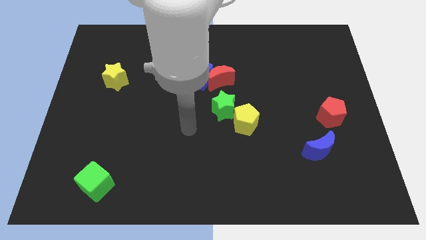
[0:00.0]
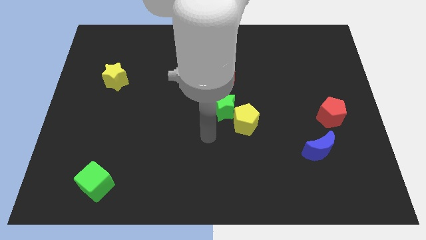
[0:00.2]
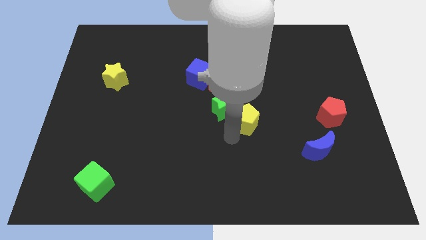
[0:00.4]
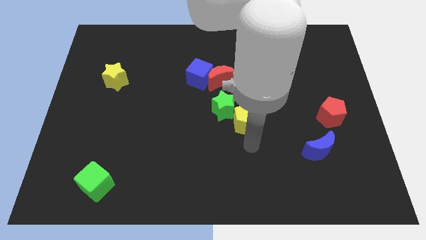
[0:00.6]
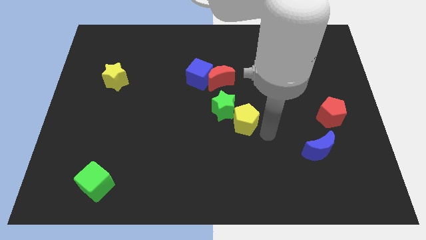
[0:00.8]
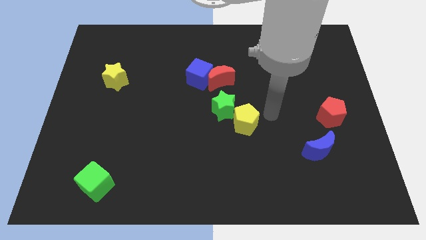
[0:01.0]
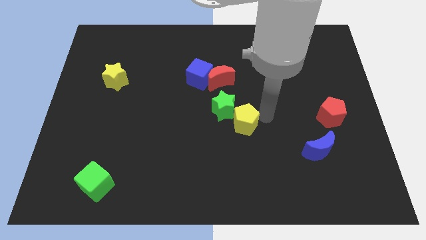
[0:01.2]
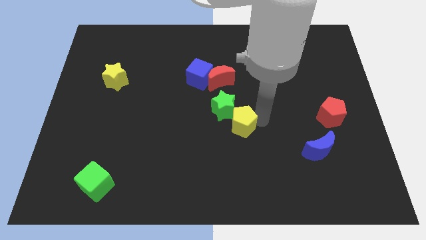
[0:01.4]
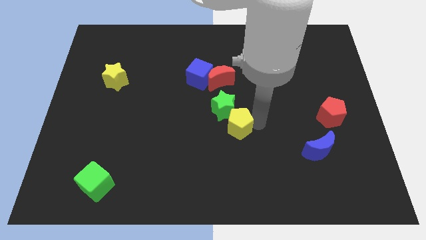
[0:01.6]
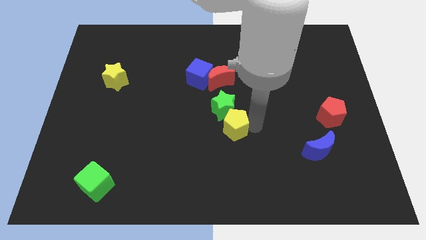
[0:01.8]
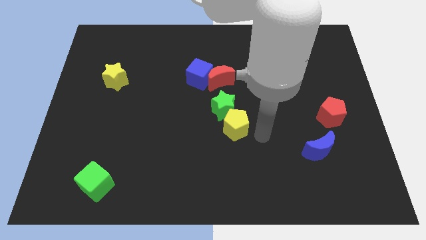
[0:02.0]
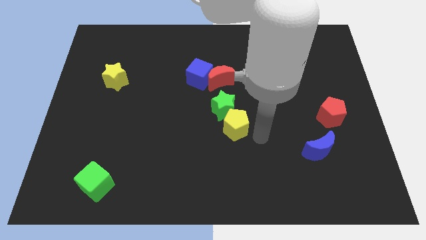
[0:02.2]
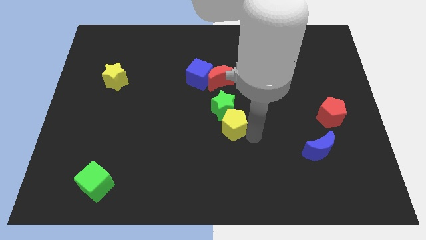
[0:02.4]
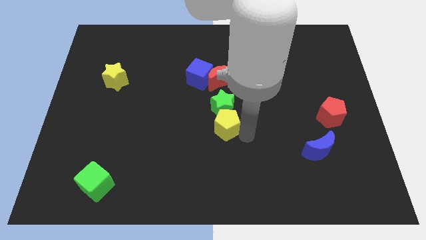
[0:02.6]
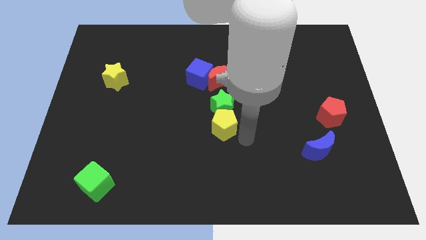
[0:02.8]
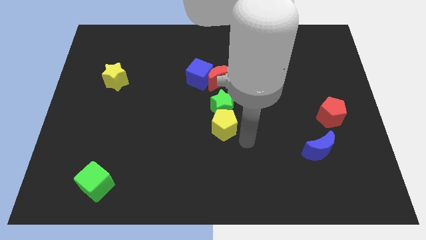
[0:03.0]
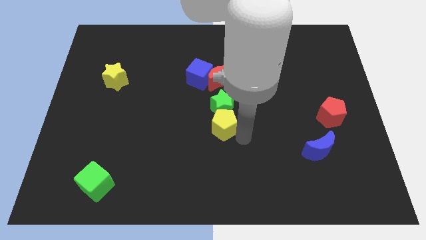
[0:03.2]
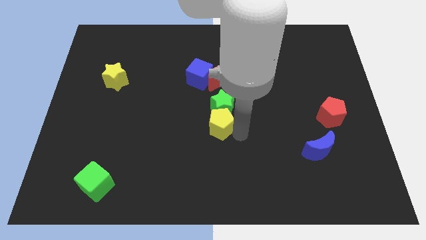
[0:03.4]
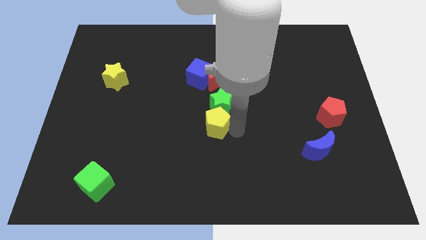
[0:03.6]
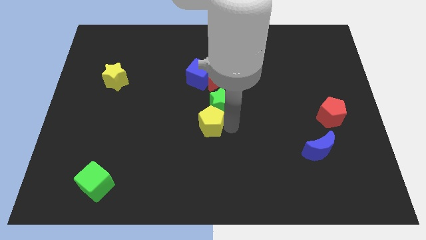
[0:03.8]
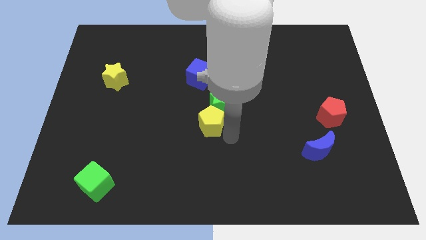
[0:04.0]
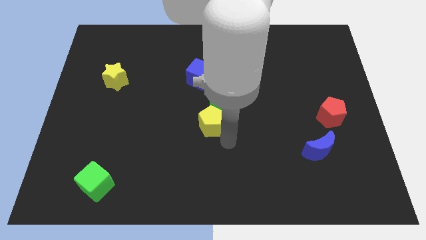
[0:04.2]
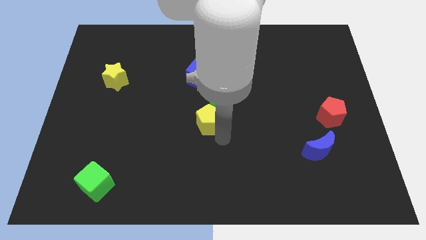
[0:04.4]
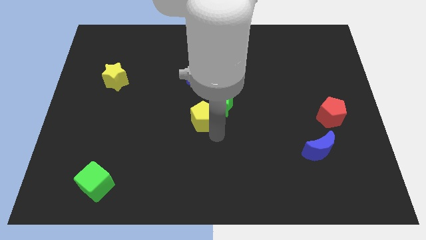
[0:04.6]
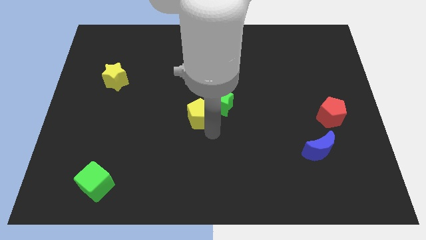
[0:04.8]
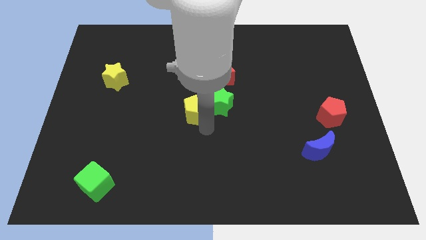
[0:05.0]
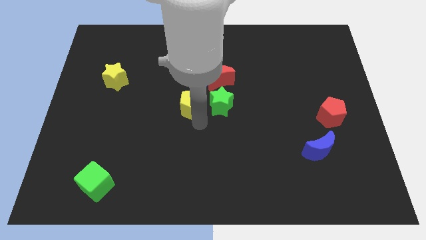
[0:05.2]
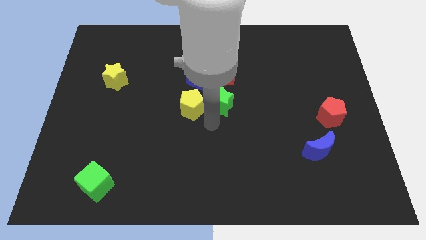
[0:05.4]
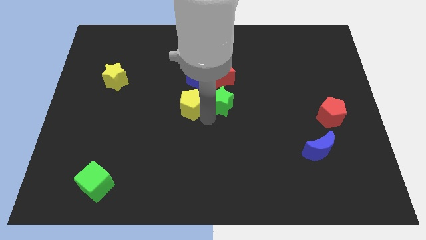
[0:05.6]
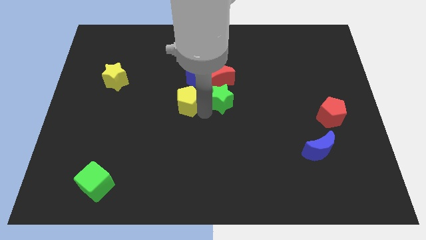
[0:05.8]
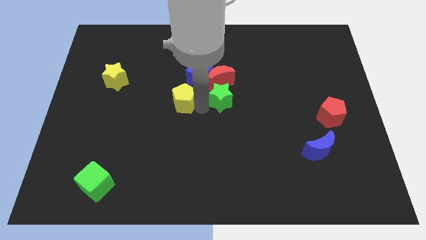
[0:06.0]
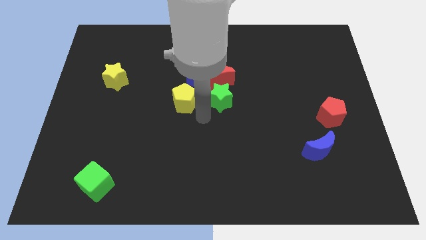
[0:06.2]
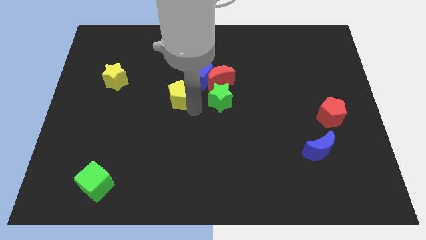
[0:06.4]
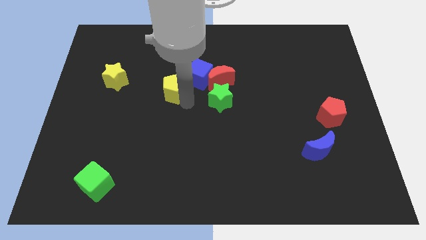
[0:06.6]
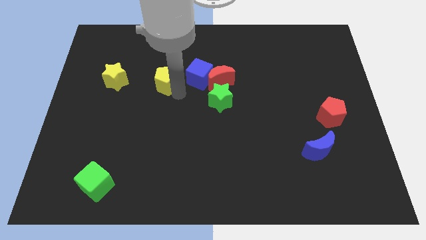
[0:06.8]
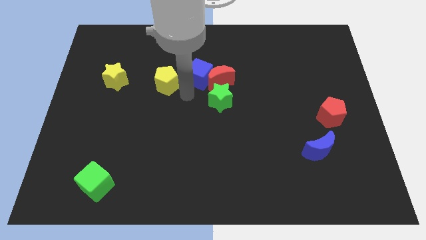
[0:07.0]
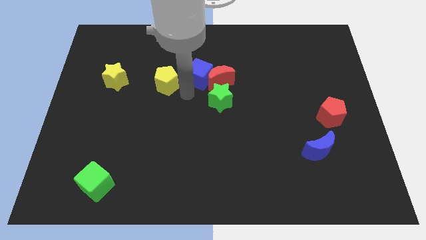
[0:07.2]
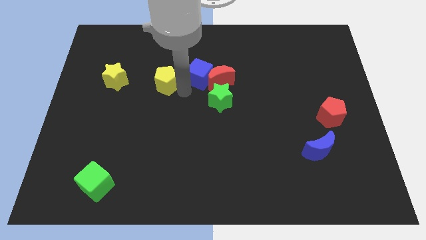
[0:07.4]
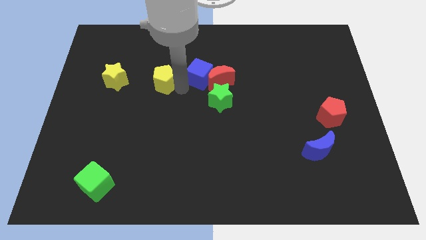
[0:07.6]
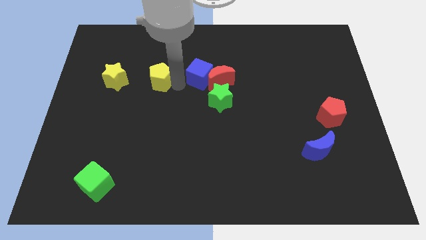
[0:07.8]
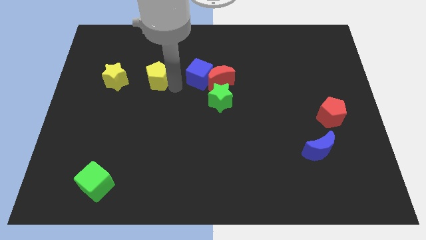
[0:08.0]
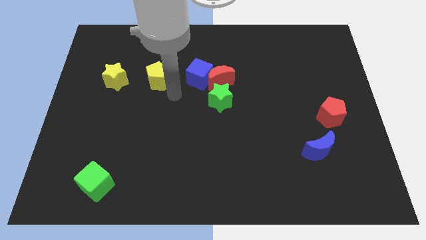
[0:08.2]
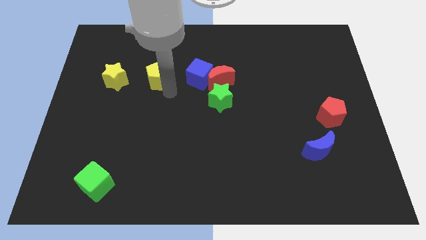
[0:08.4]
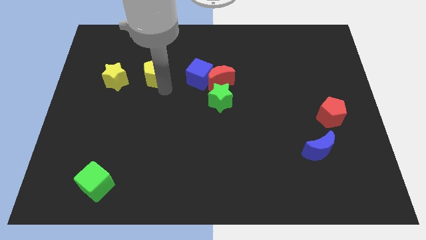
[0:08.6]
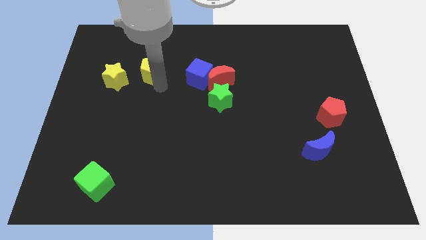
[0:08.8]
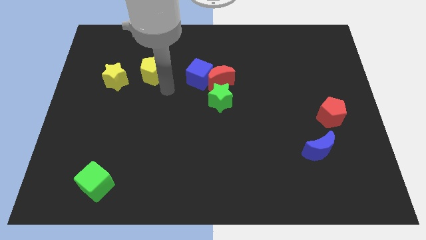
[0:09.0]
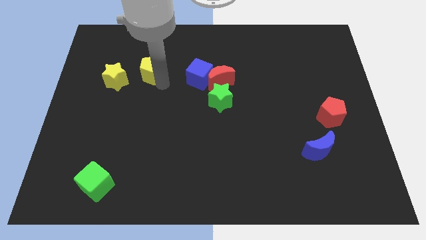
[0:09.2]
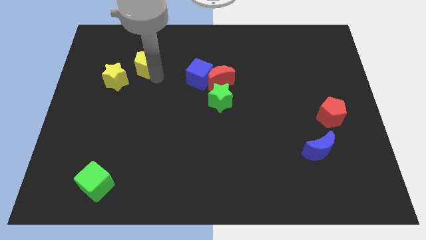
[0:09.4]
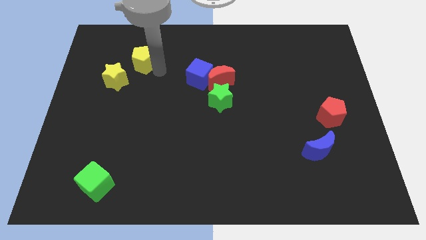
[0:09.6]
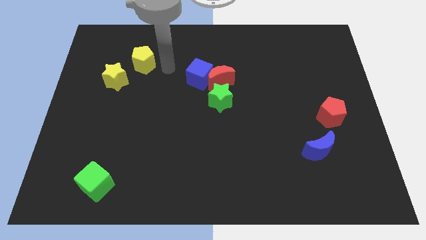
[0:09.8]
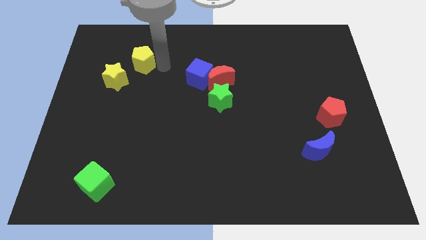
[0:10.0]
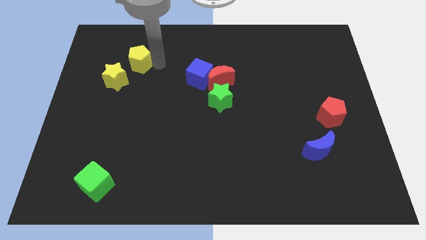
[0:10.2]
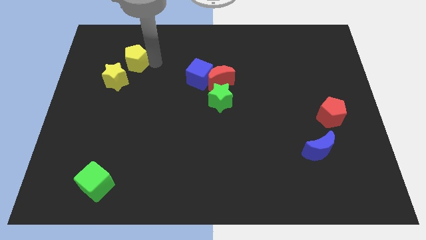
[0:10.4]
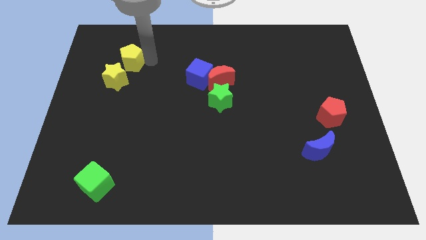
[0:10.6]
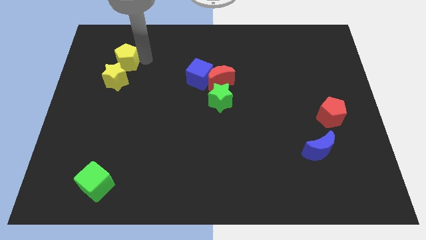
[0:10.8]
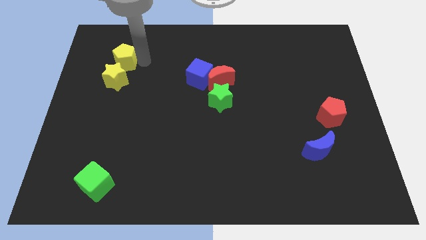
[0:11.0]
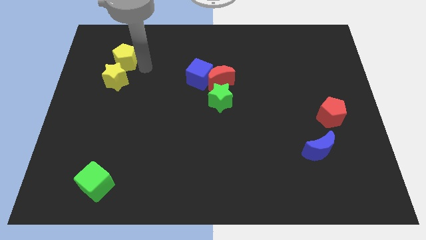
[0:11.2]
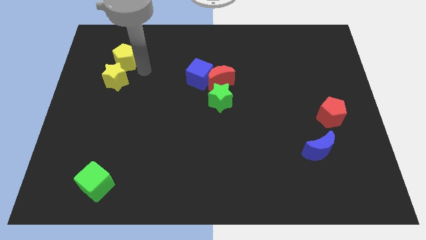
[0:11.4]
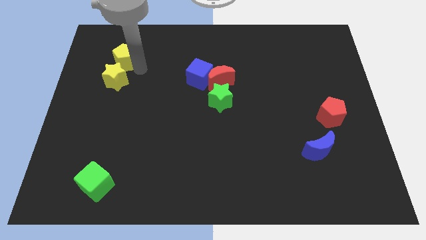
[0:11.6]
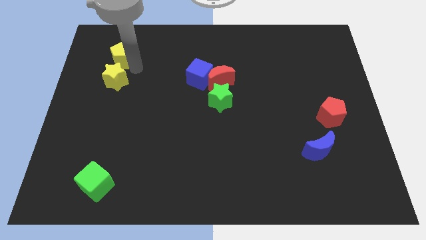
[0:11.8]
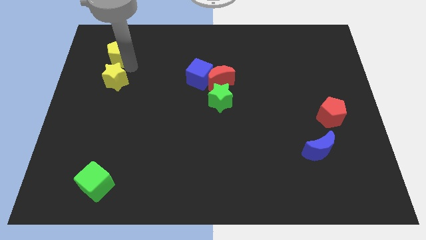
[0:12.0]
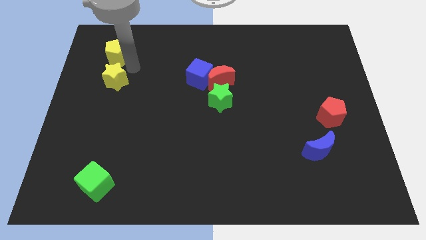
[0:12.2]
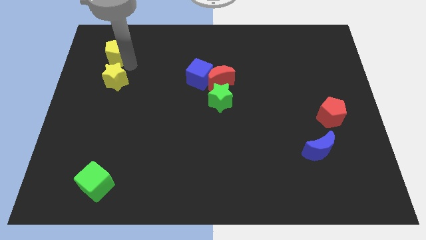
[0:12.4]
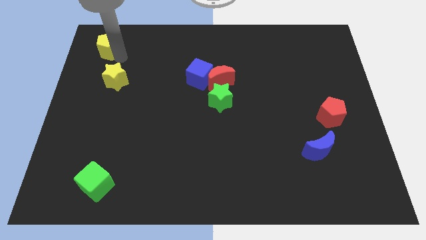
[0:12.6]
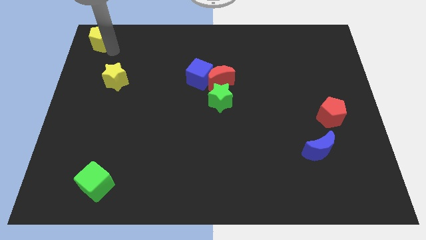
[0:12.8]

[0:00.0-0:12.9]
push the yellow pentagon to the top left
